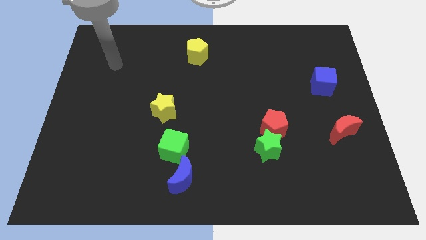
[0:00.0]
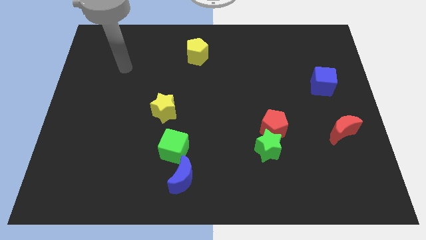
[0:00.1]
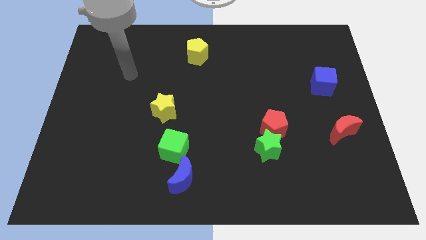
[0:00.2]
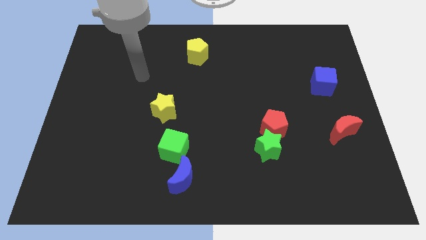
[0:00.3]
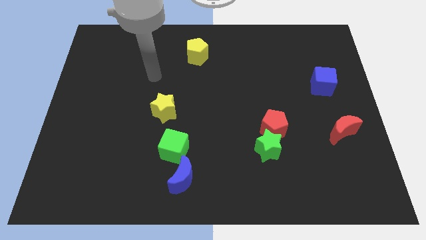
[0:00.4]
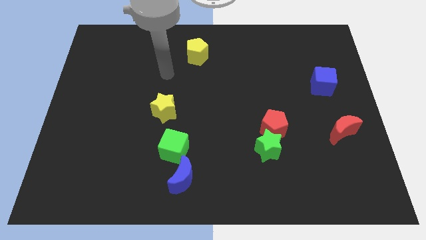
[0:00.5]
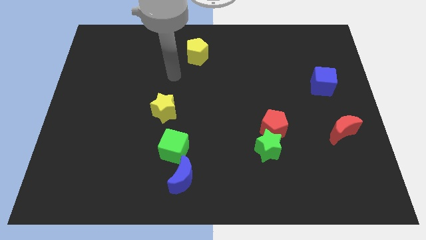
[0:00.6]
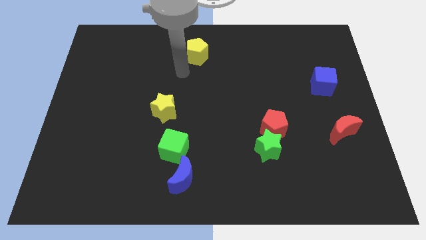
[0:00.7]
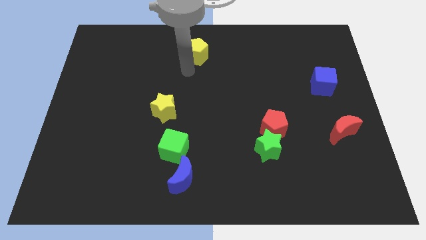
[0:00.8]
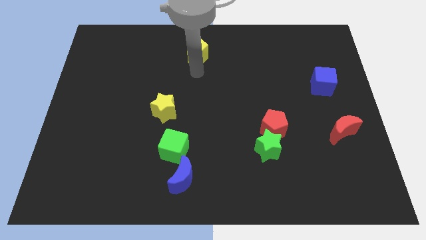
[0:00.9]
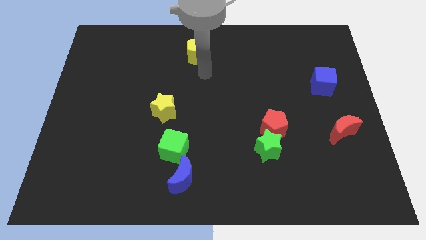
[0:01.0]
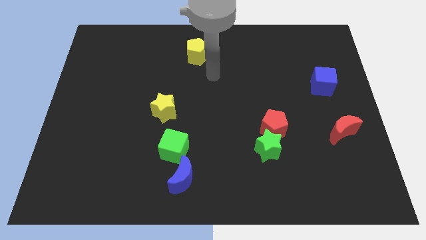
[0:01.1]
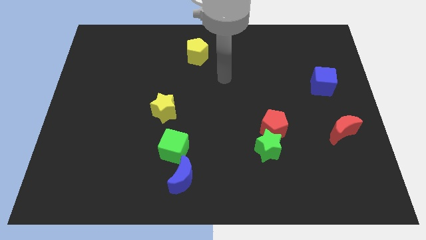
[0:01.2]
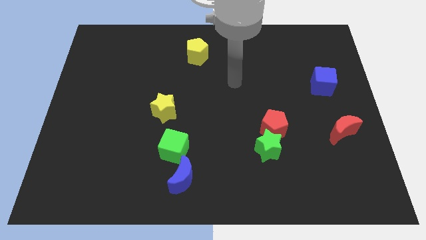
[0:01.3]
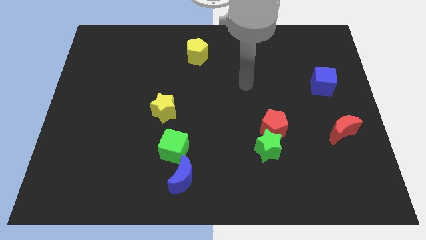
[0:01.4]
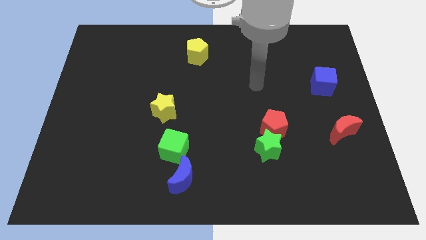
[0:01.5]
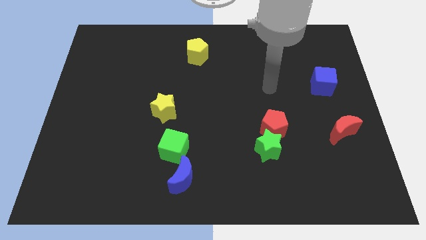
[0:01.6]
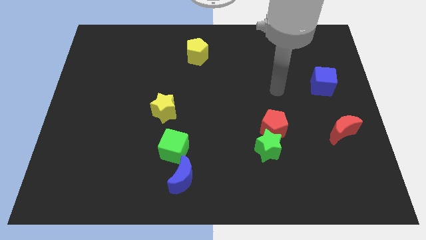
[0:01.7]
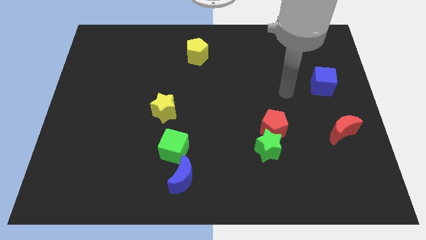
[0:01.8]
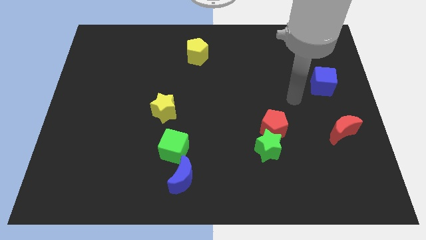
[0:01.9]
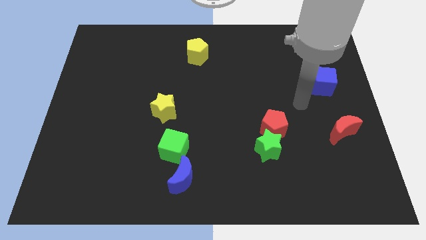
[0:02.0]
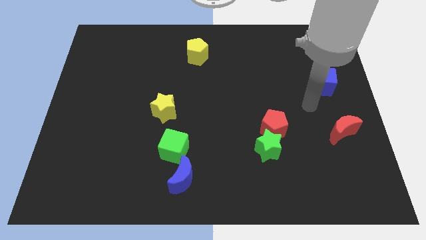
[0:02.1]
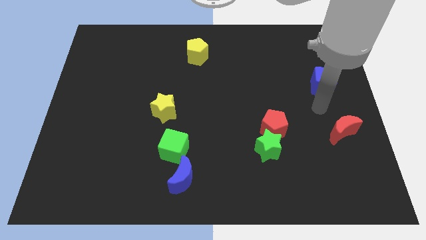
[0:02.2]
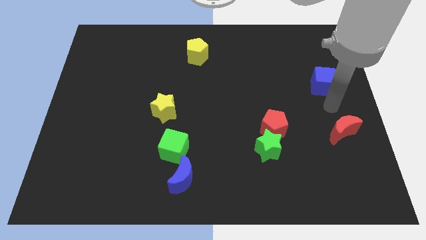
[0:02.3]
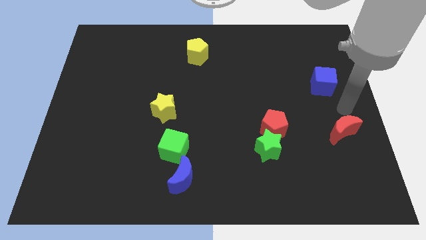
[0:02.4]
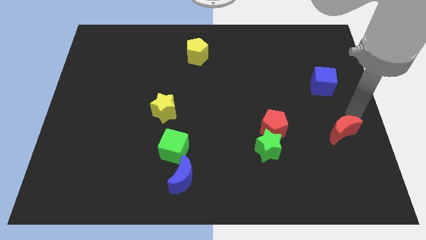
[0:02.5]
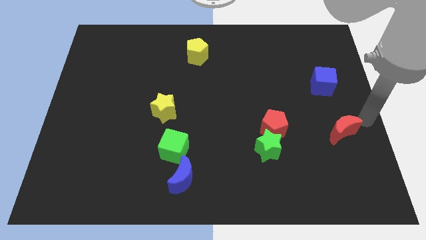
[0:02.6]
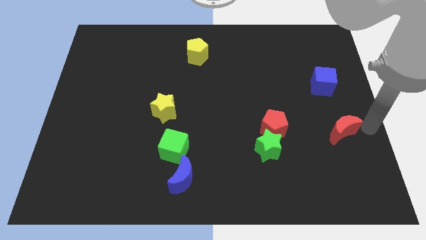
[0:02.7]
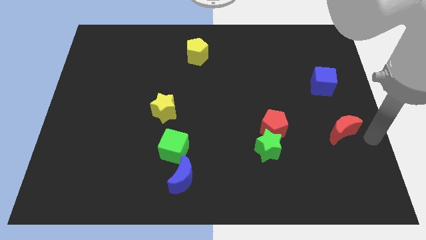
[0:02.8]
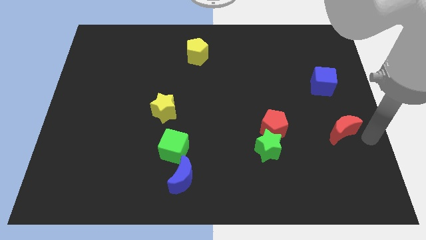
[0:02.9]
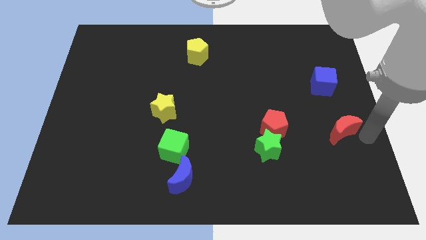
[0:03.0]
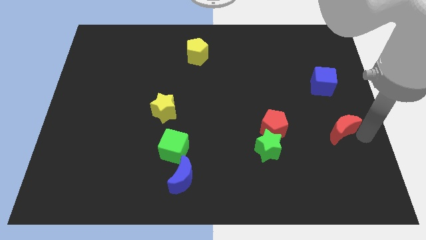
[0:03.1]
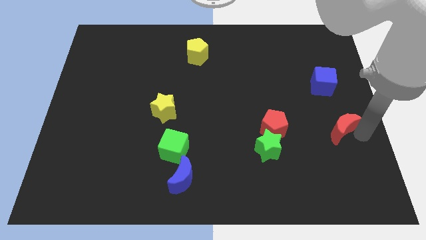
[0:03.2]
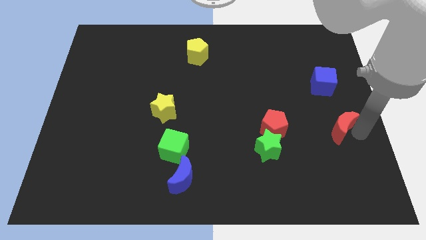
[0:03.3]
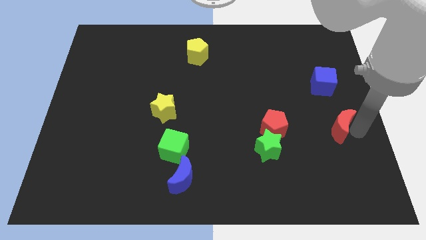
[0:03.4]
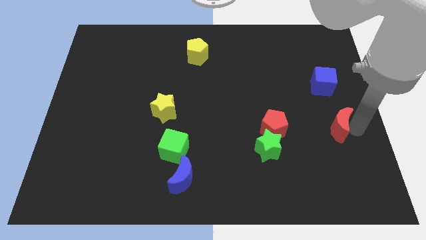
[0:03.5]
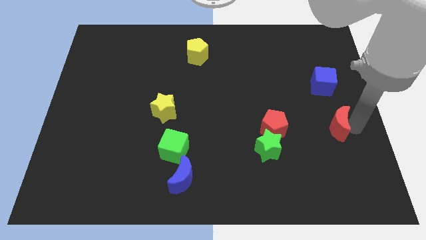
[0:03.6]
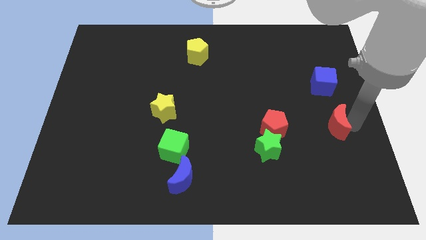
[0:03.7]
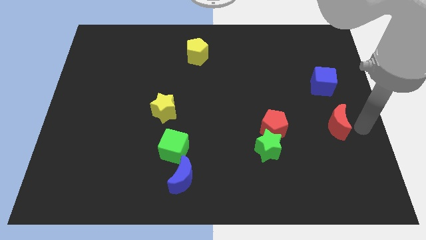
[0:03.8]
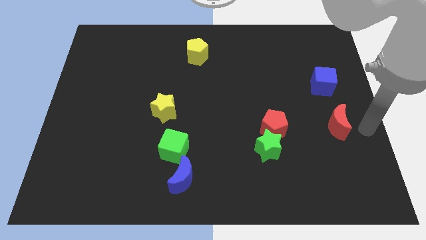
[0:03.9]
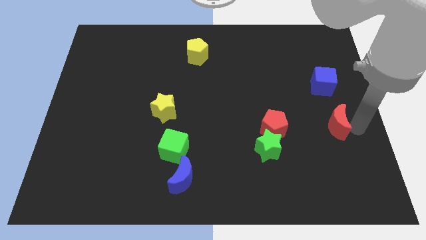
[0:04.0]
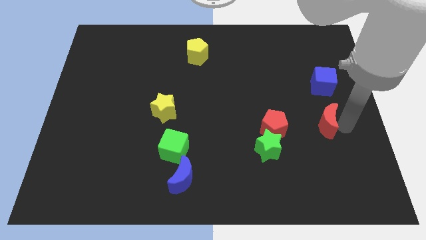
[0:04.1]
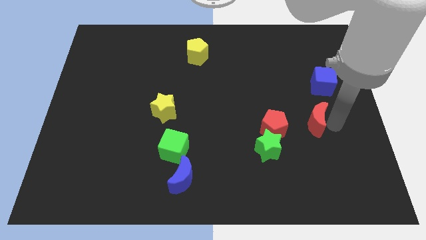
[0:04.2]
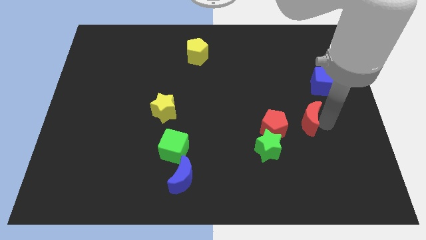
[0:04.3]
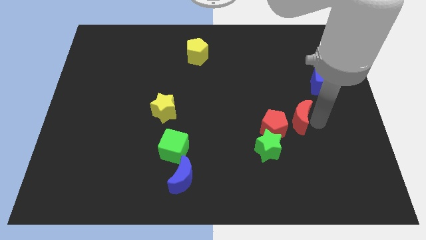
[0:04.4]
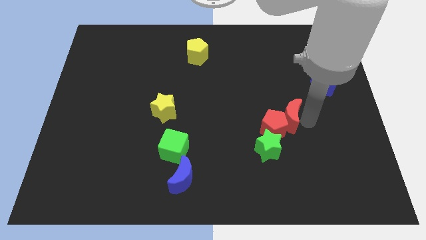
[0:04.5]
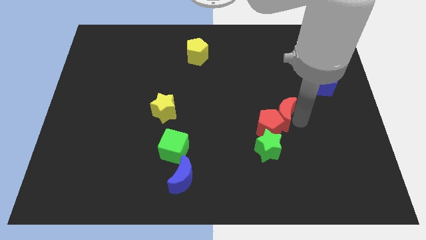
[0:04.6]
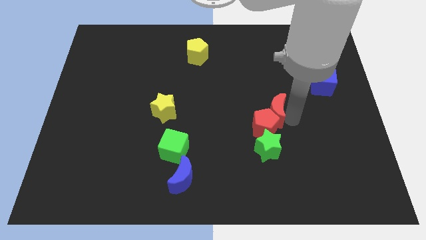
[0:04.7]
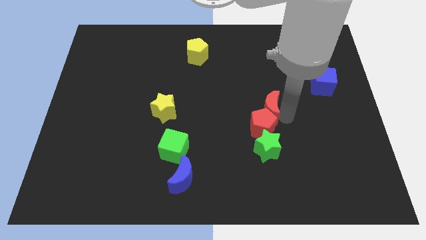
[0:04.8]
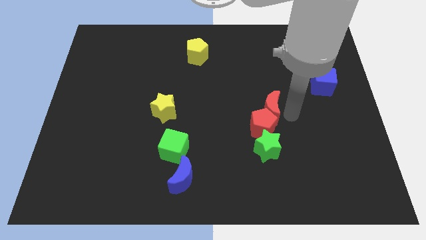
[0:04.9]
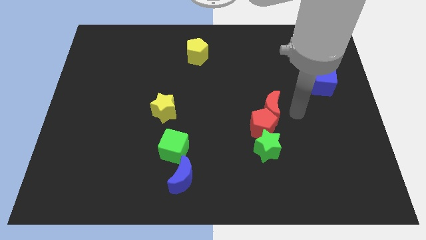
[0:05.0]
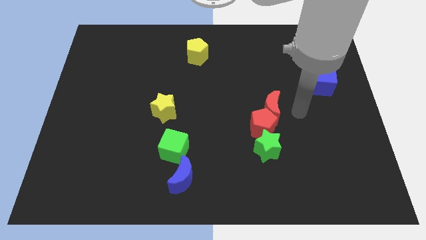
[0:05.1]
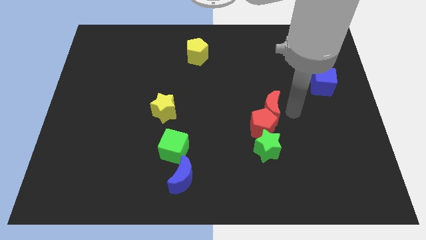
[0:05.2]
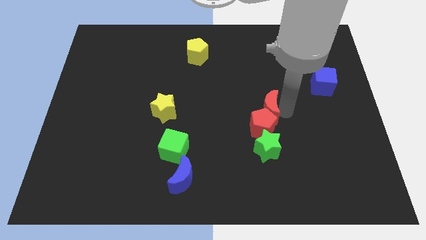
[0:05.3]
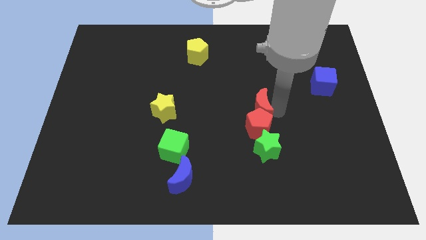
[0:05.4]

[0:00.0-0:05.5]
slide the red moon to the top left of the red pentagon

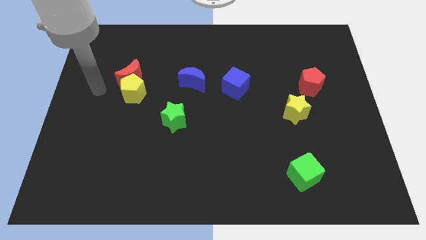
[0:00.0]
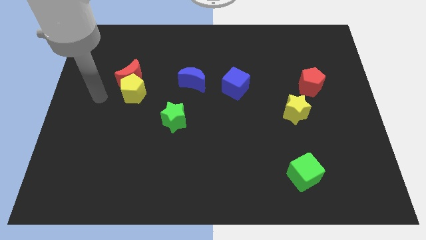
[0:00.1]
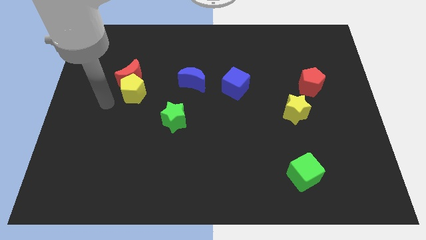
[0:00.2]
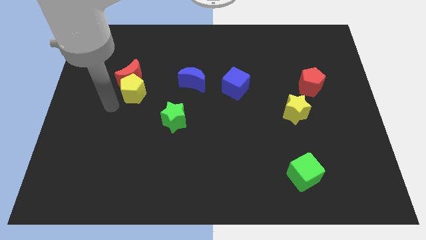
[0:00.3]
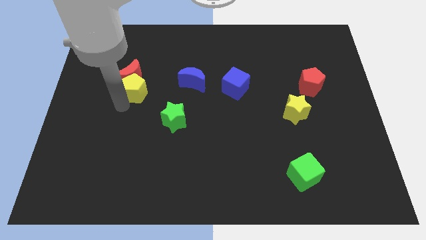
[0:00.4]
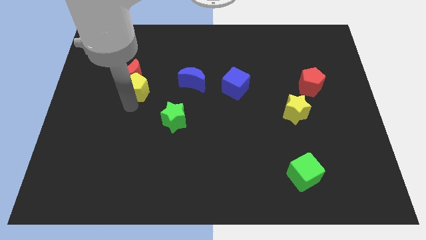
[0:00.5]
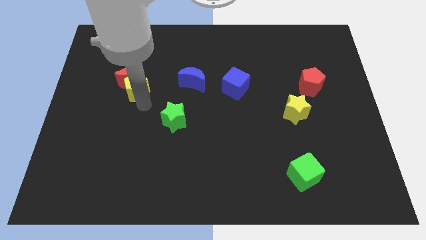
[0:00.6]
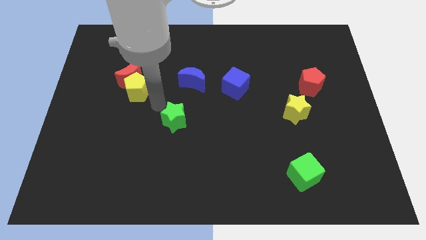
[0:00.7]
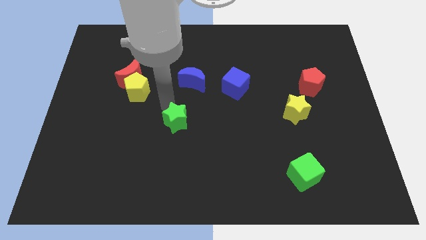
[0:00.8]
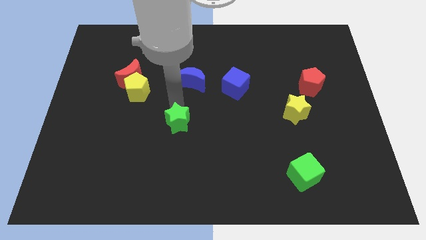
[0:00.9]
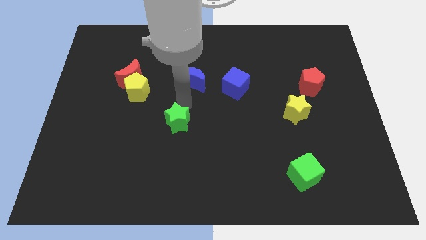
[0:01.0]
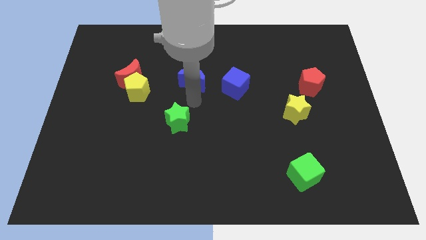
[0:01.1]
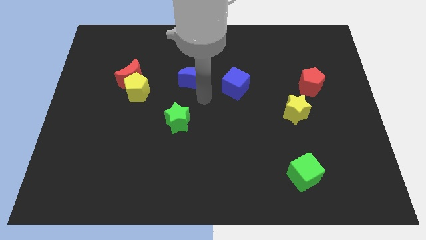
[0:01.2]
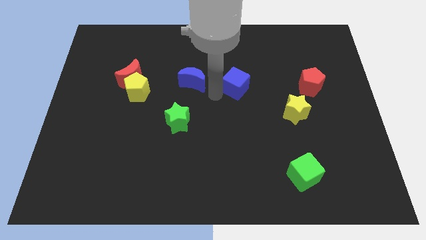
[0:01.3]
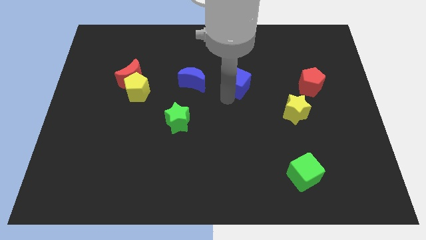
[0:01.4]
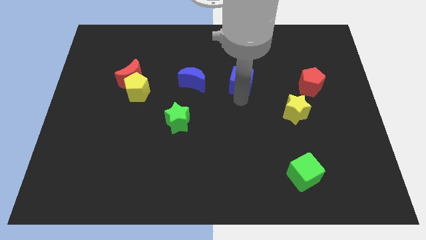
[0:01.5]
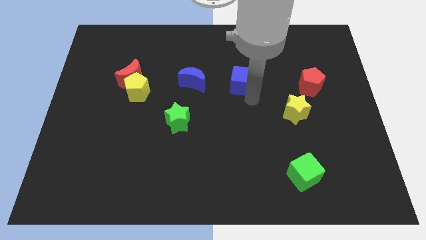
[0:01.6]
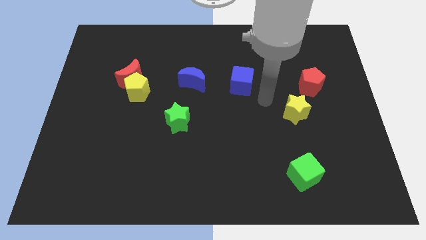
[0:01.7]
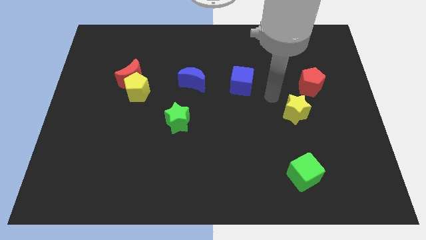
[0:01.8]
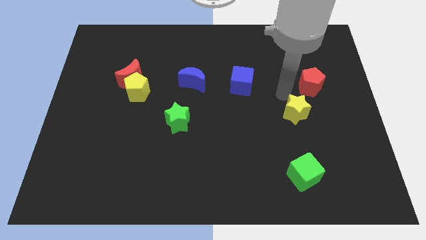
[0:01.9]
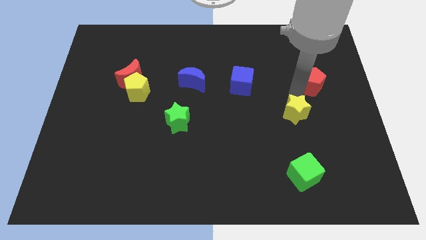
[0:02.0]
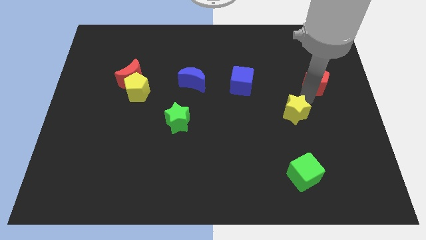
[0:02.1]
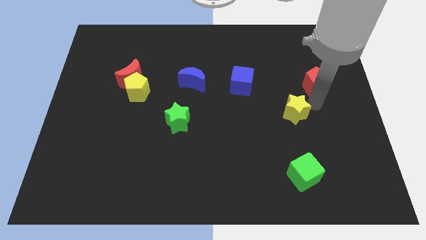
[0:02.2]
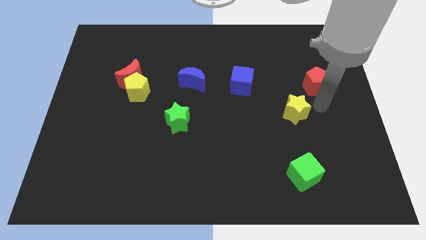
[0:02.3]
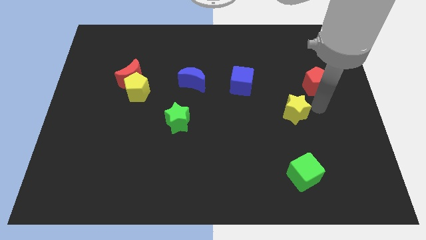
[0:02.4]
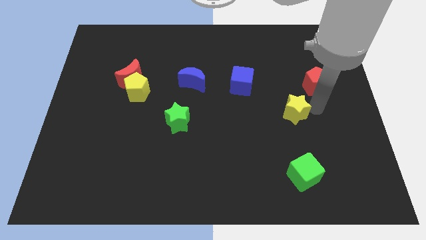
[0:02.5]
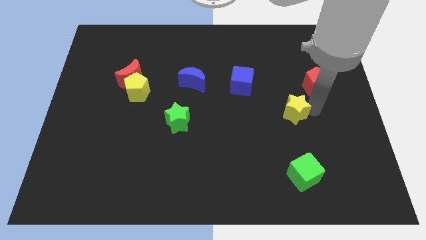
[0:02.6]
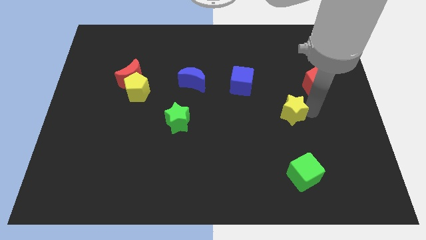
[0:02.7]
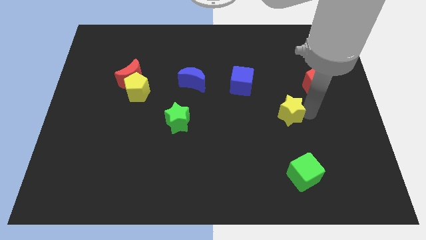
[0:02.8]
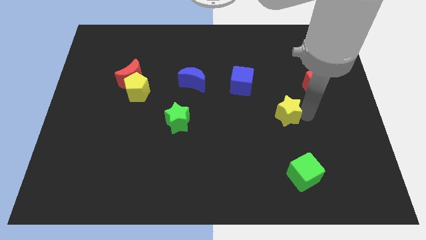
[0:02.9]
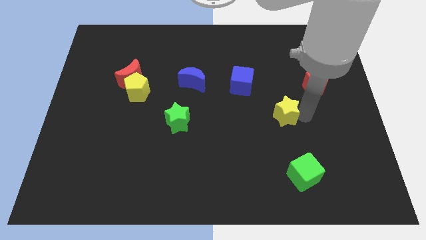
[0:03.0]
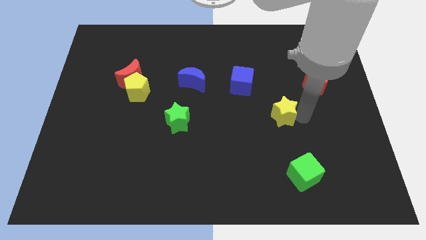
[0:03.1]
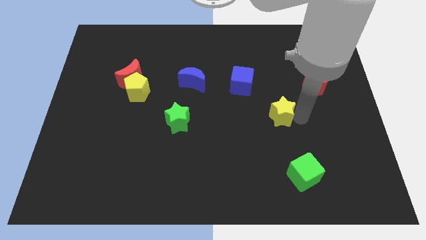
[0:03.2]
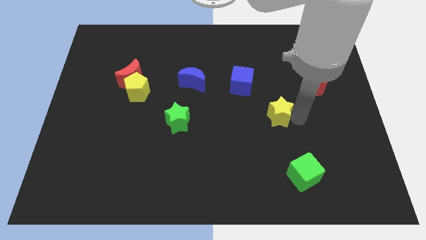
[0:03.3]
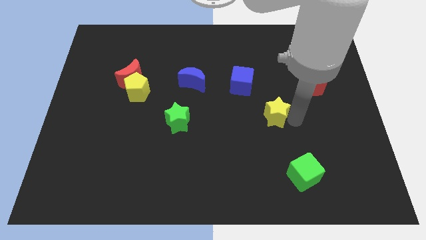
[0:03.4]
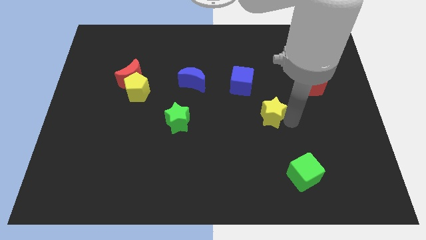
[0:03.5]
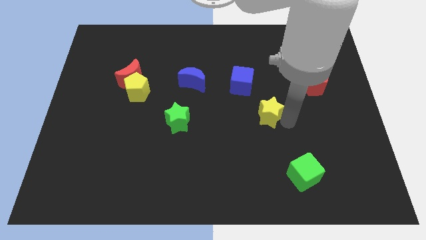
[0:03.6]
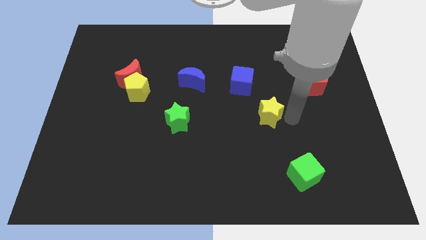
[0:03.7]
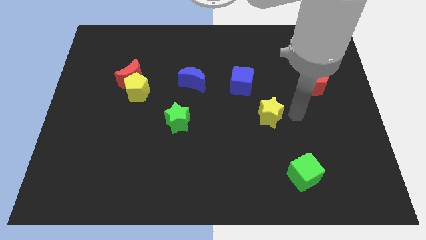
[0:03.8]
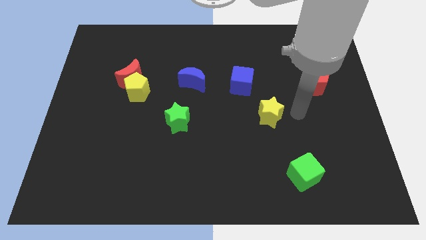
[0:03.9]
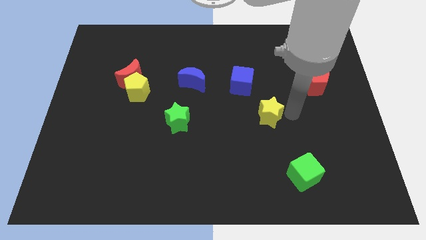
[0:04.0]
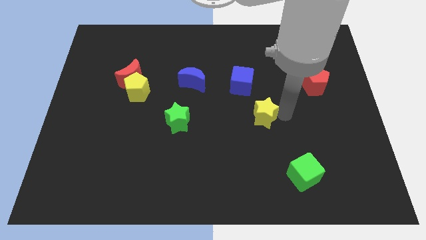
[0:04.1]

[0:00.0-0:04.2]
slide the yellow star to the bottom side of the blue cube
